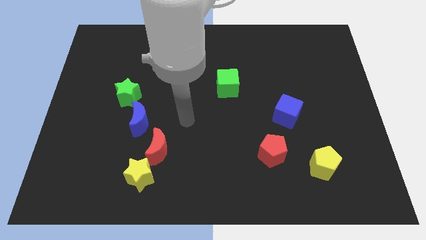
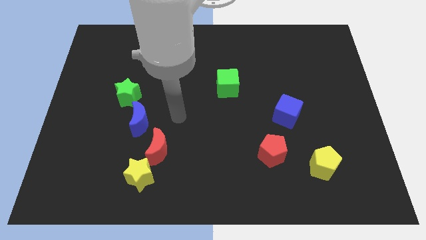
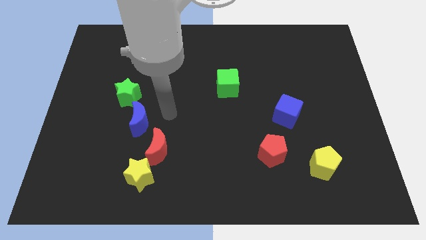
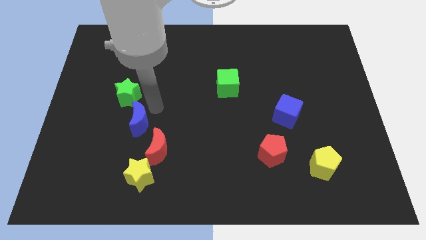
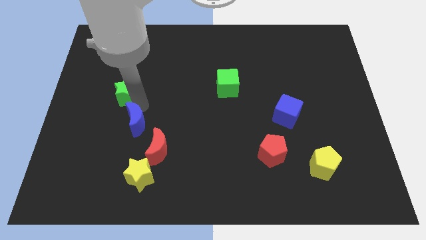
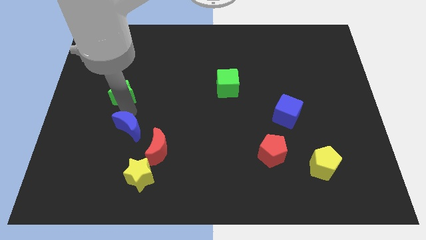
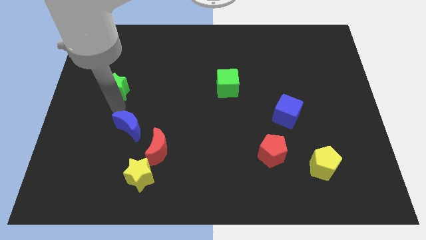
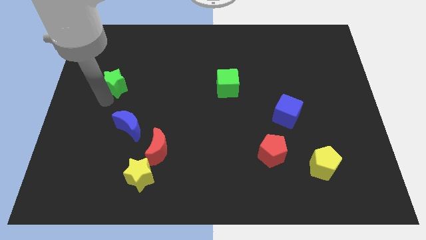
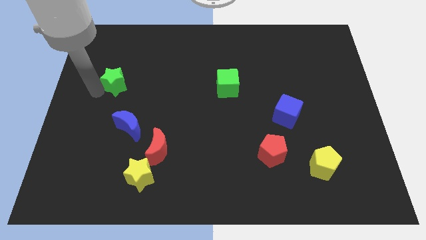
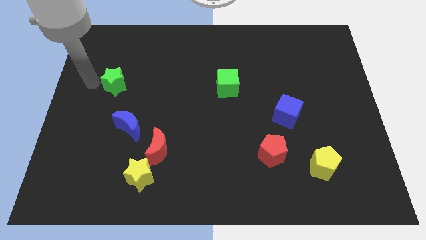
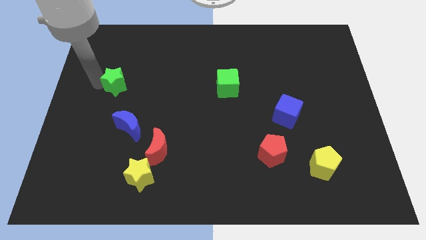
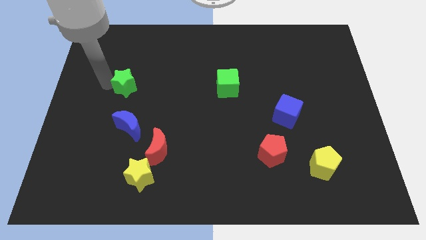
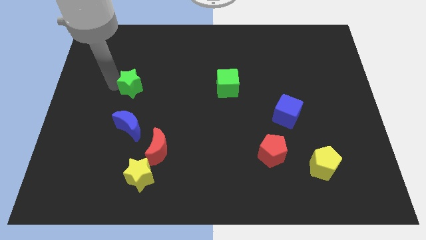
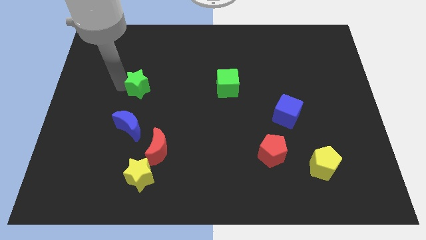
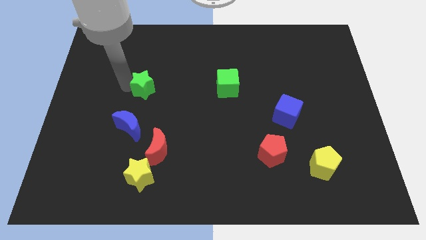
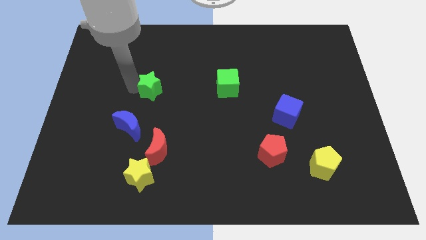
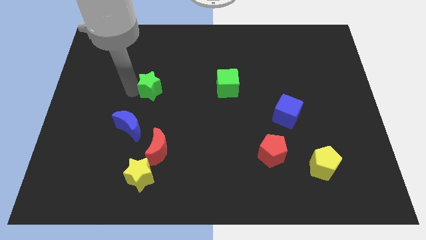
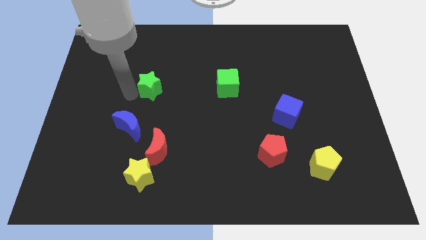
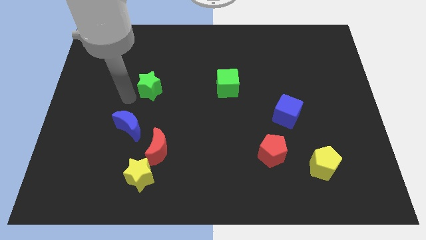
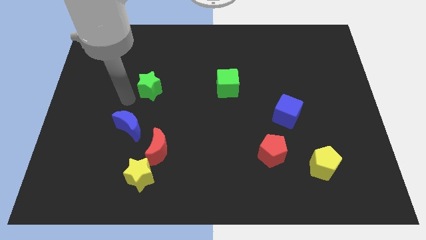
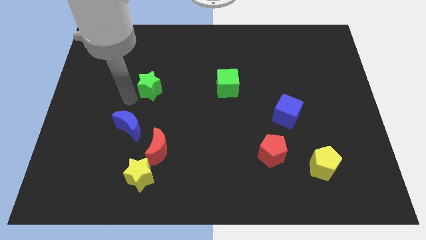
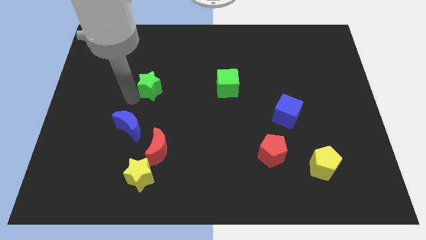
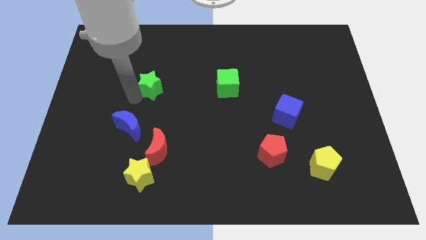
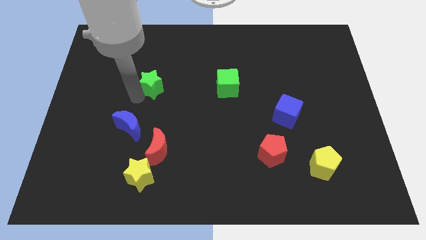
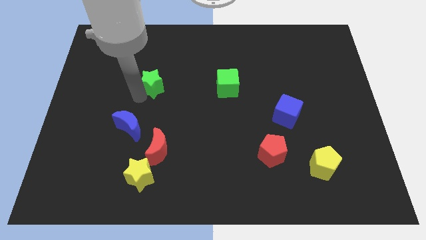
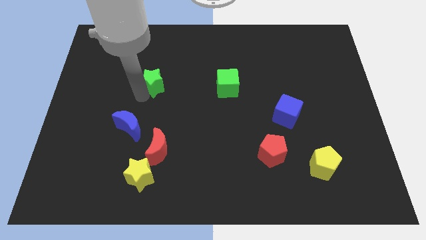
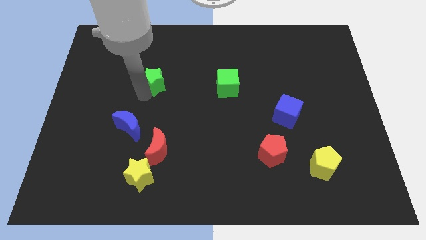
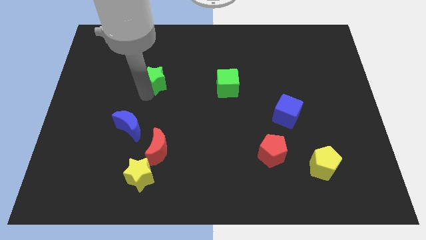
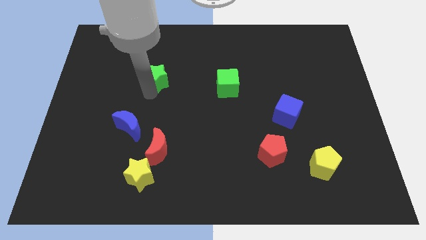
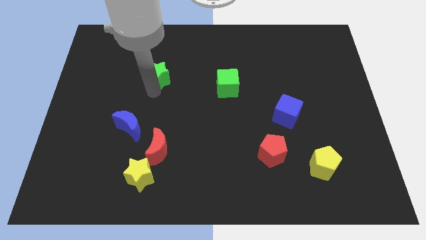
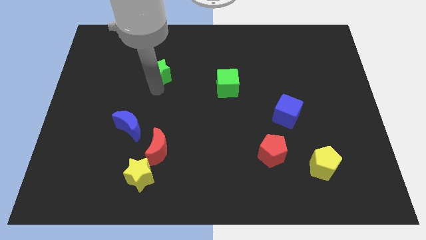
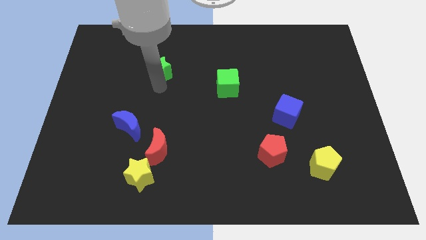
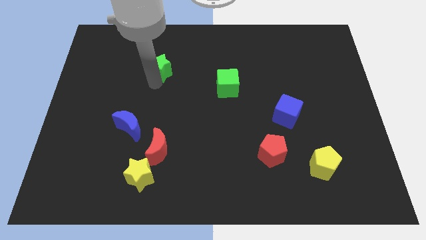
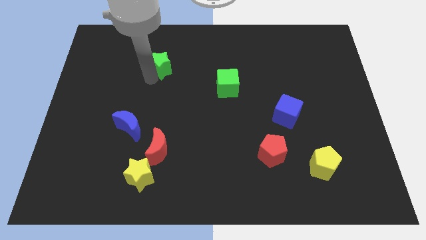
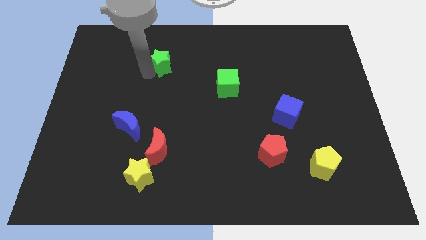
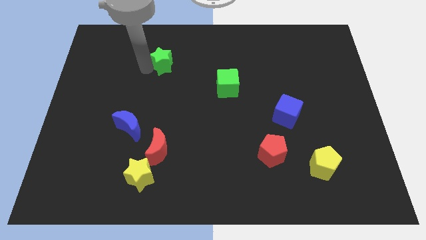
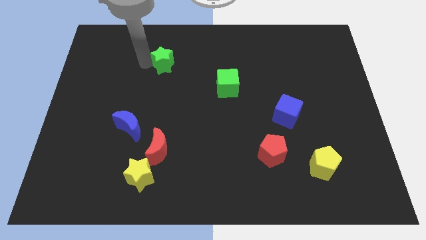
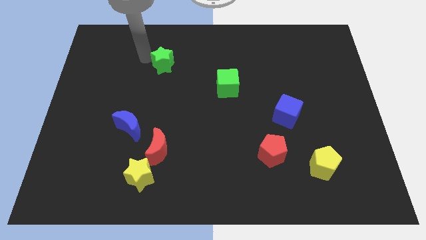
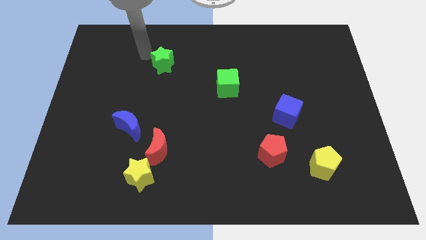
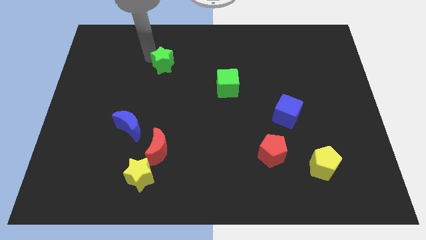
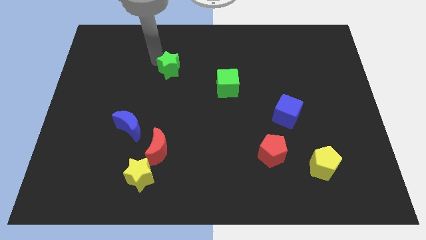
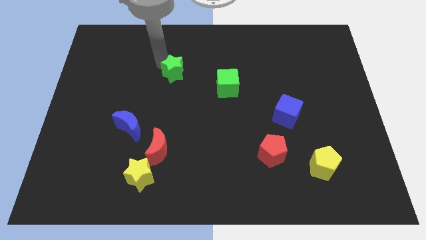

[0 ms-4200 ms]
push the green star right a little

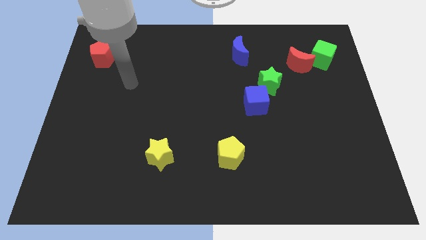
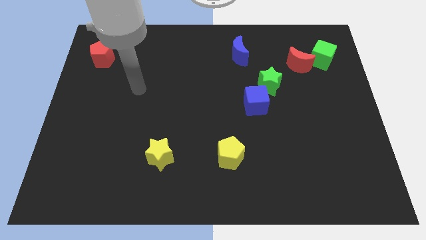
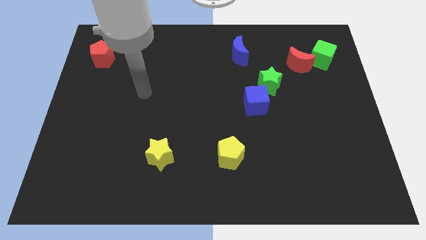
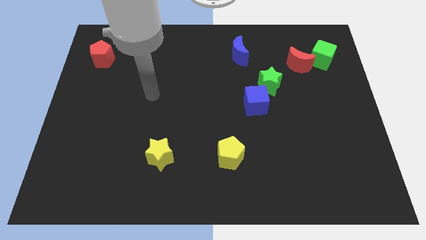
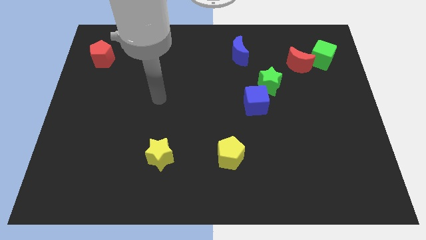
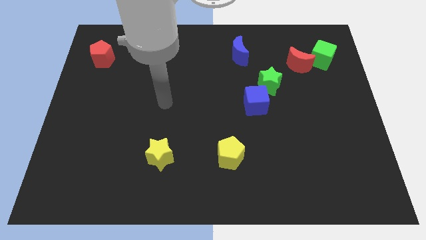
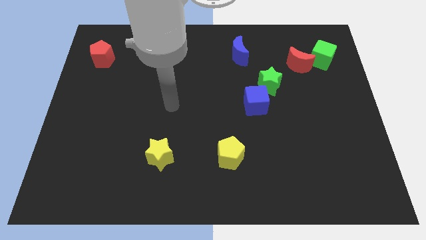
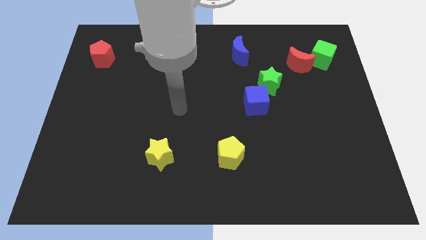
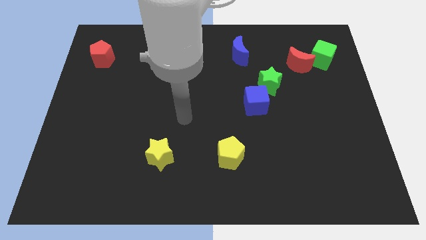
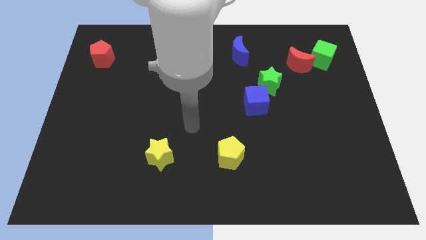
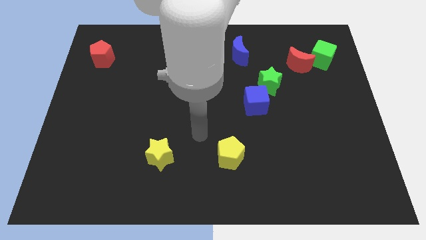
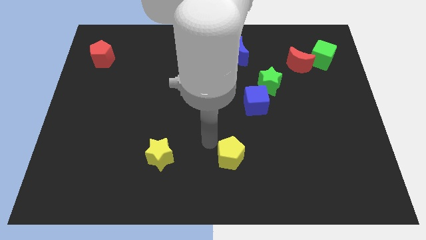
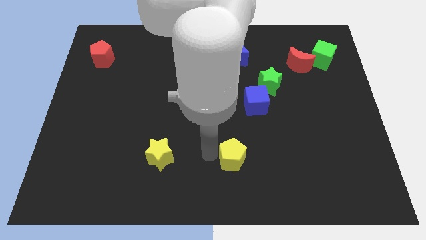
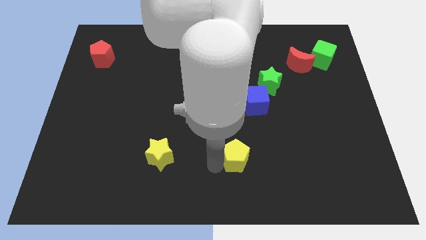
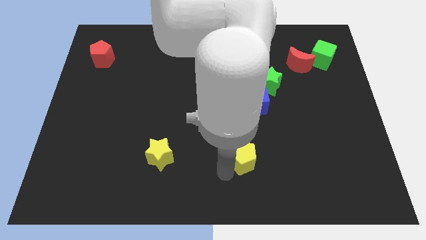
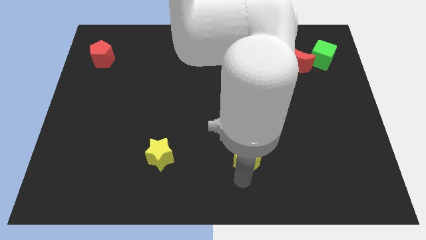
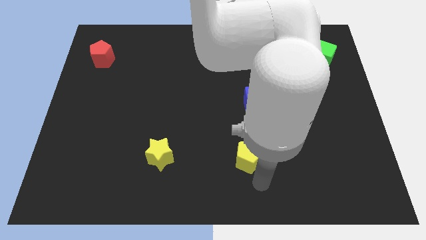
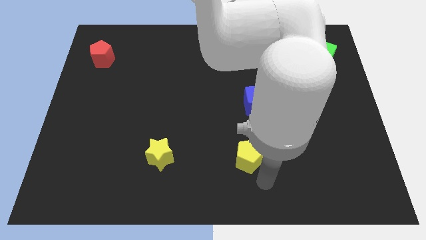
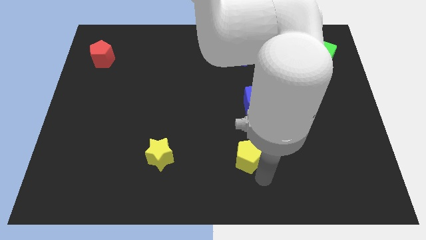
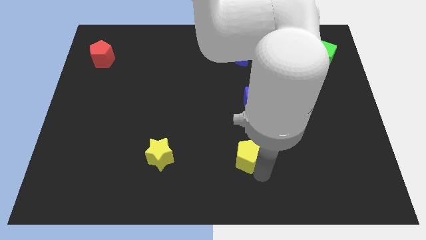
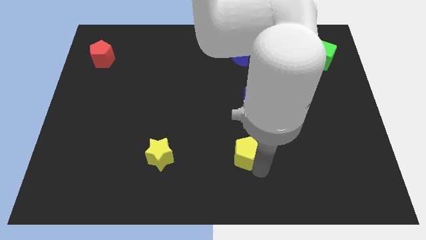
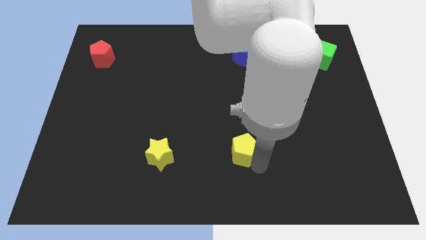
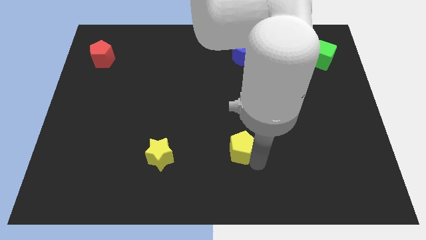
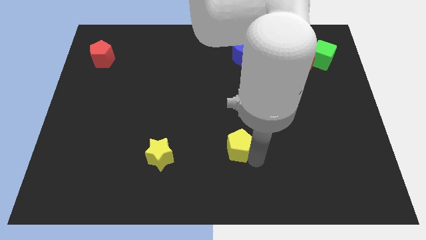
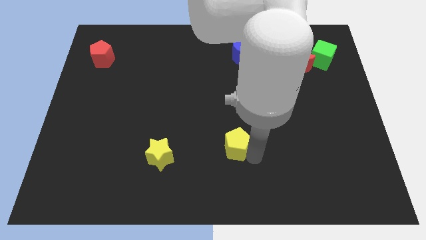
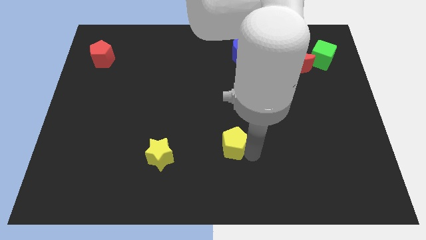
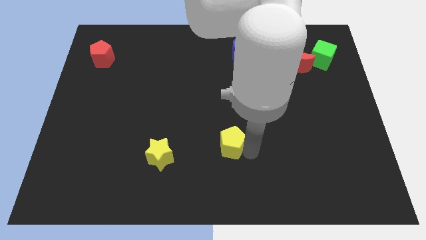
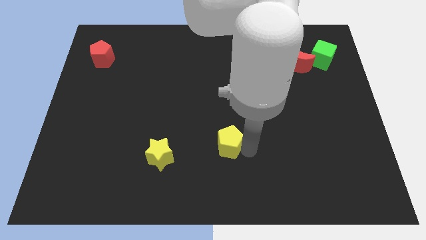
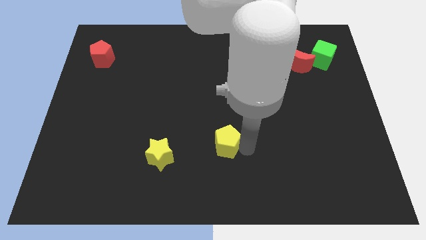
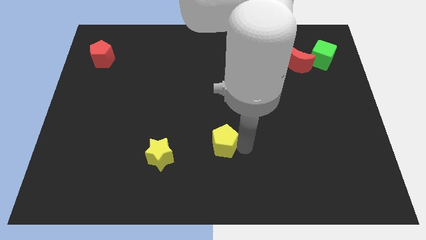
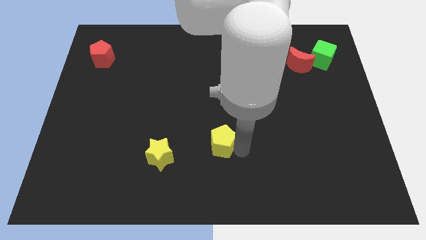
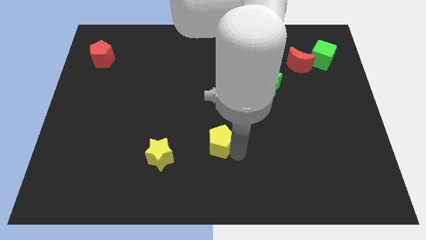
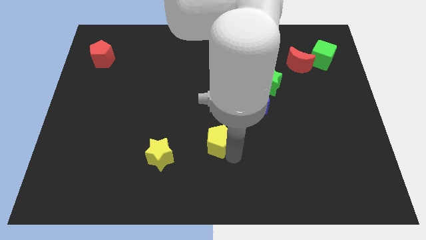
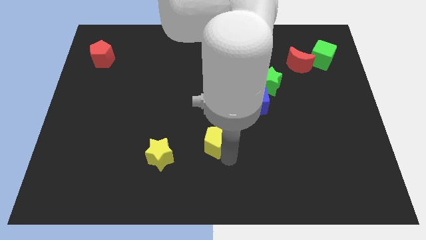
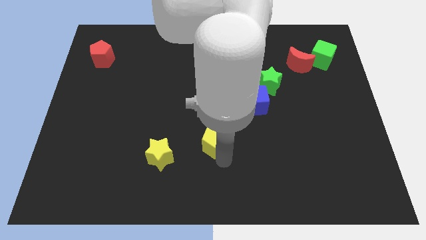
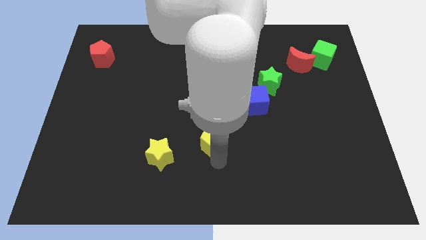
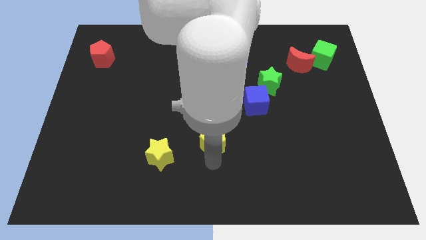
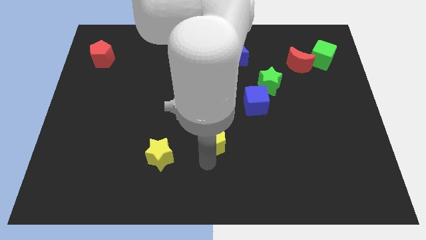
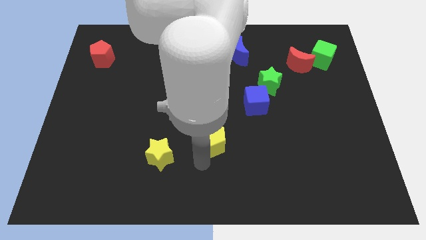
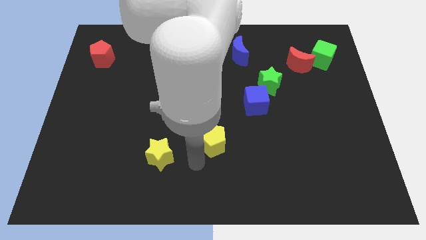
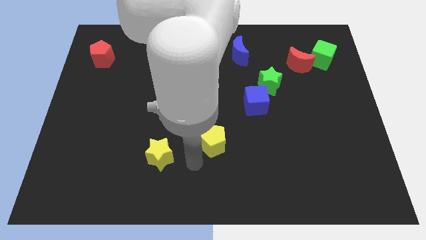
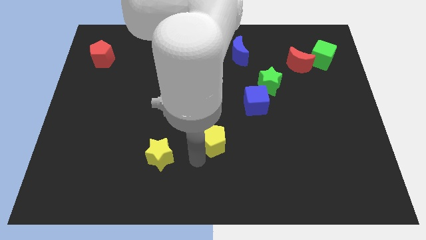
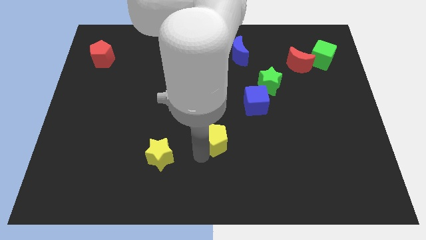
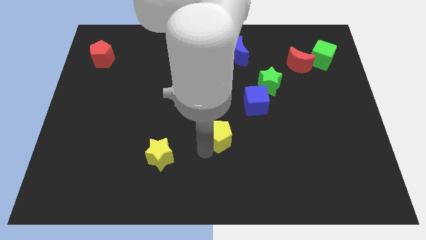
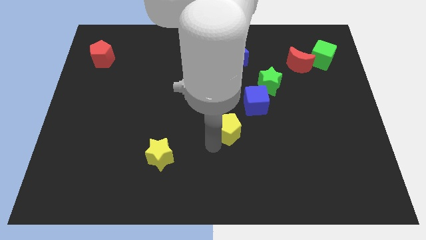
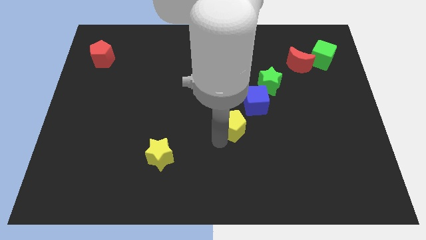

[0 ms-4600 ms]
slide the yellow pentagon a little bit up
